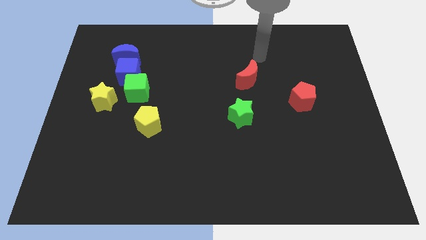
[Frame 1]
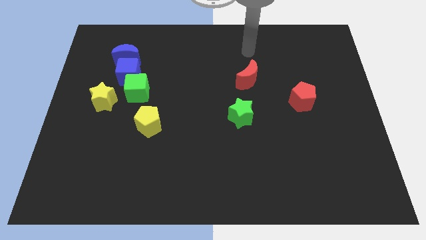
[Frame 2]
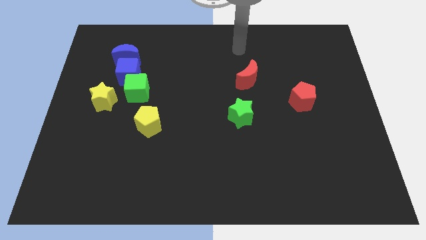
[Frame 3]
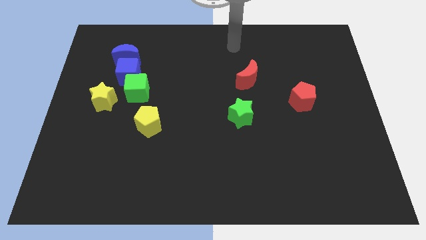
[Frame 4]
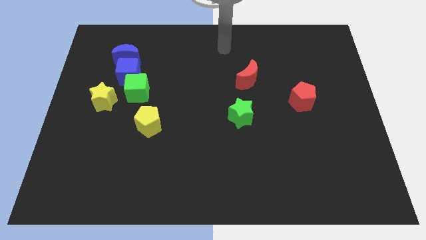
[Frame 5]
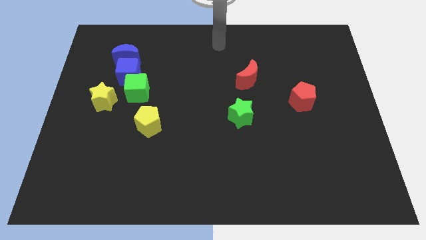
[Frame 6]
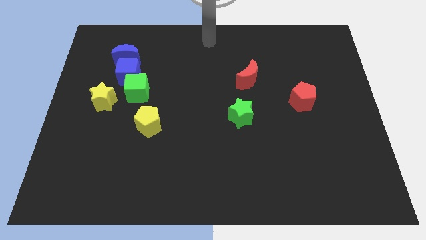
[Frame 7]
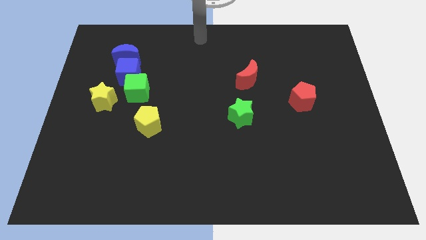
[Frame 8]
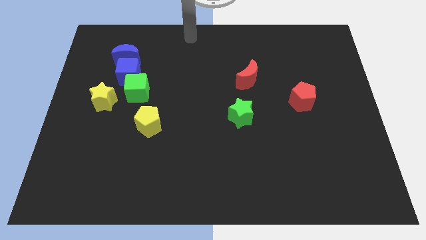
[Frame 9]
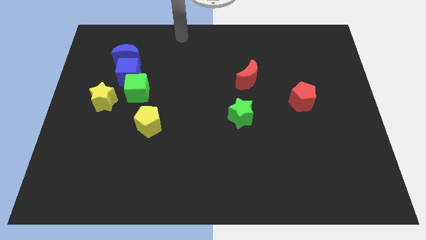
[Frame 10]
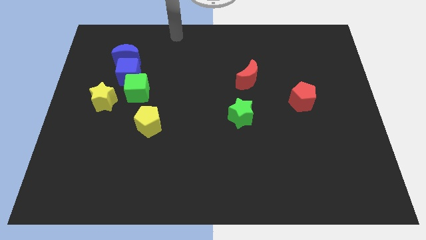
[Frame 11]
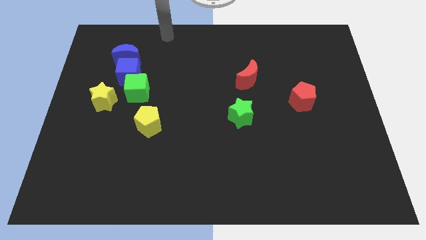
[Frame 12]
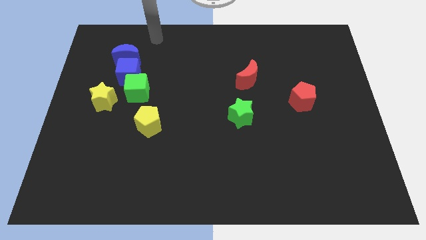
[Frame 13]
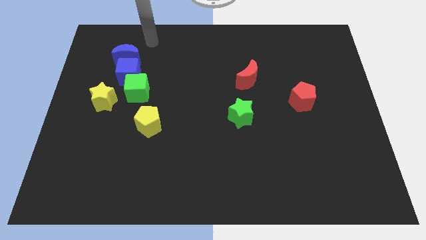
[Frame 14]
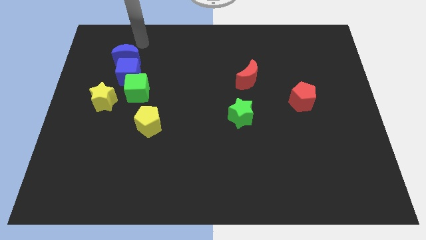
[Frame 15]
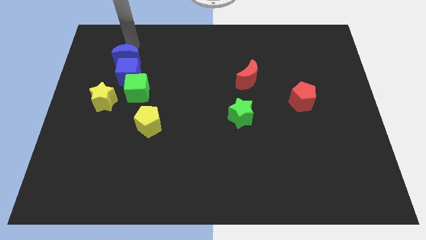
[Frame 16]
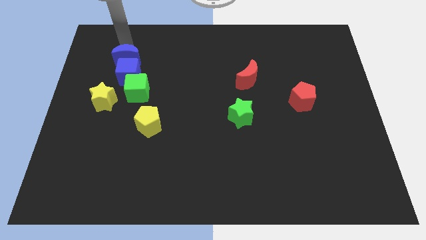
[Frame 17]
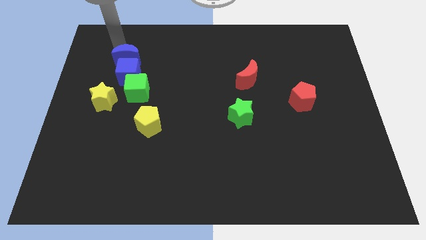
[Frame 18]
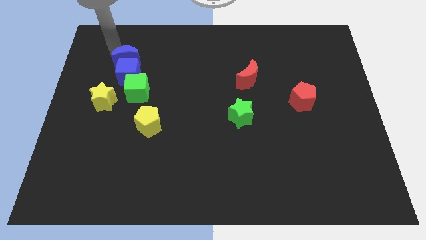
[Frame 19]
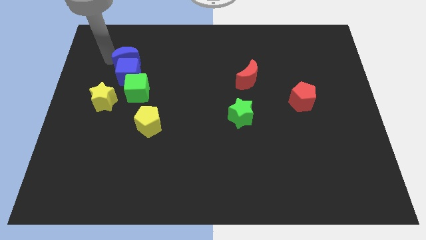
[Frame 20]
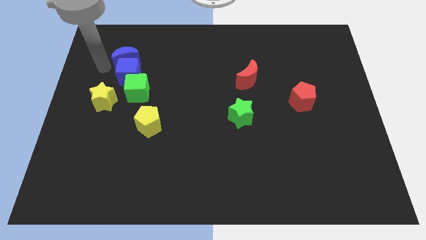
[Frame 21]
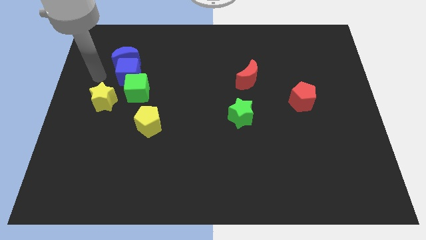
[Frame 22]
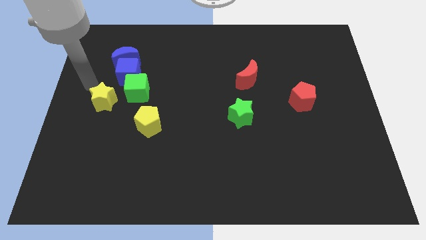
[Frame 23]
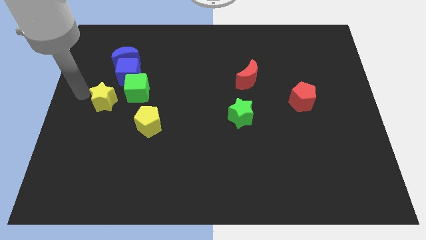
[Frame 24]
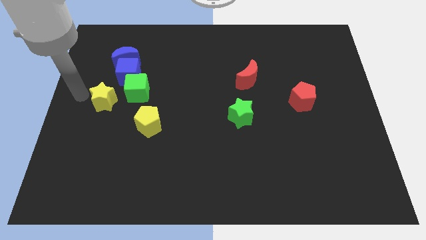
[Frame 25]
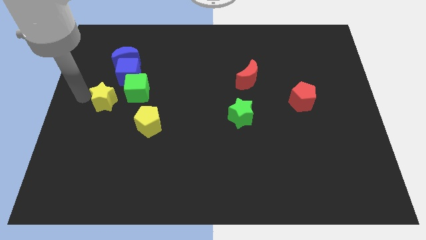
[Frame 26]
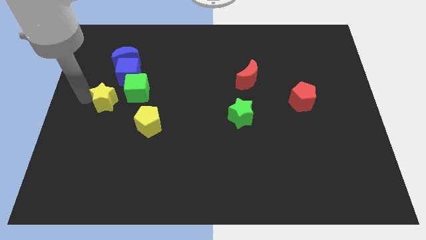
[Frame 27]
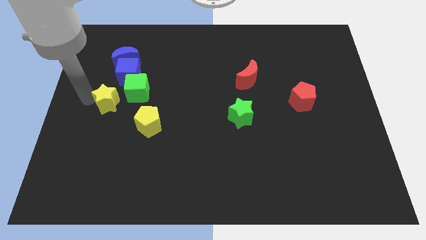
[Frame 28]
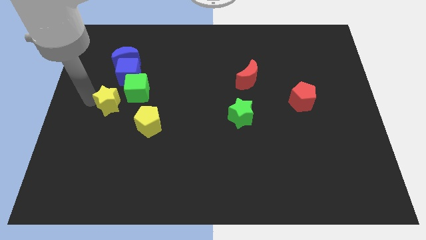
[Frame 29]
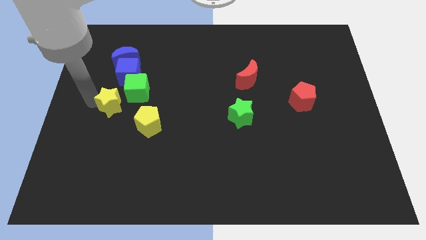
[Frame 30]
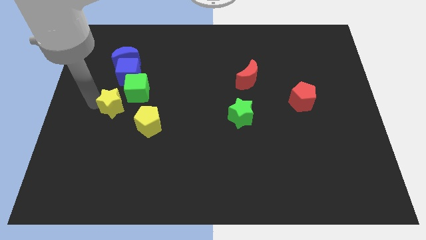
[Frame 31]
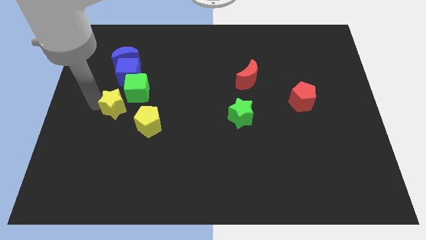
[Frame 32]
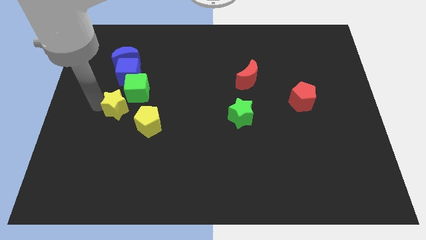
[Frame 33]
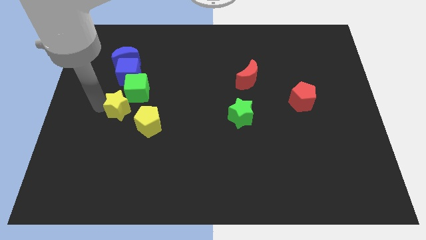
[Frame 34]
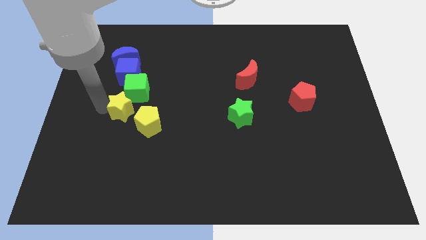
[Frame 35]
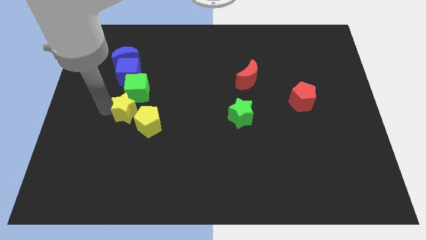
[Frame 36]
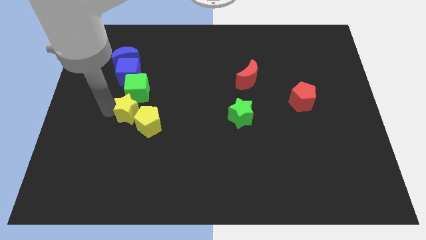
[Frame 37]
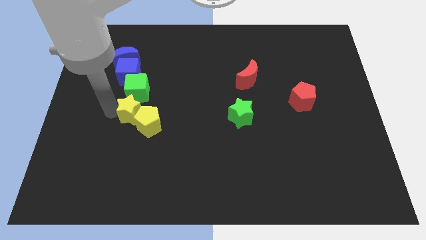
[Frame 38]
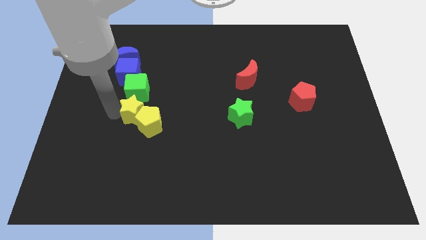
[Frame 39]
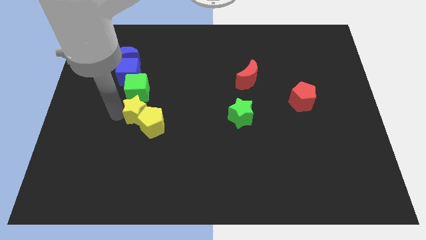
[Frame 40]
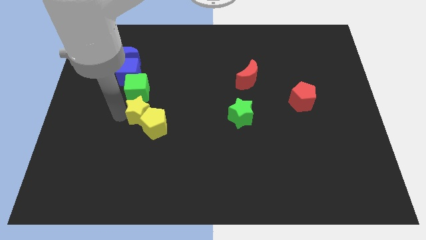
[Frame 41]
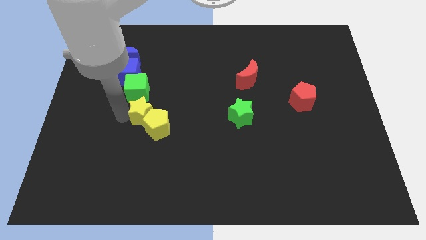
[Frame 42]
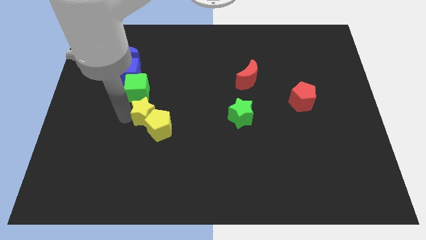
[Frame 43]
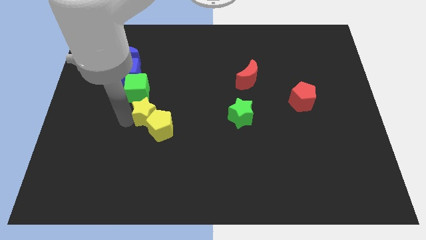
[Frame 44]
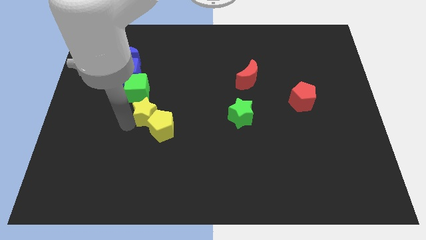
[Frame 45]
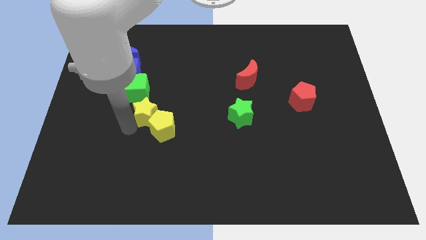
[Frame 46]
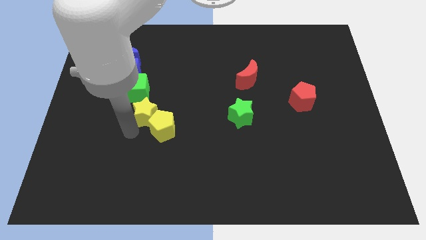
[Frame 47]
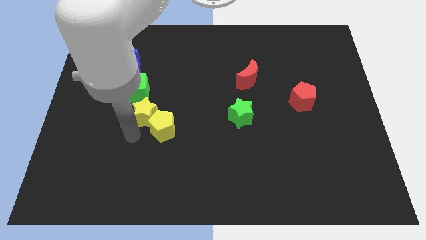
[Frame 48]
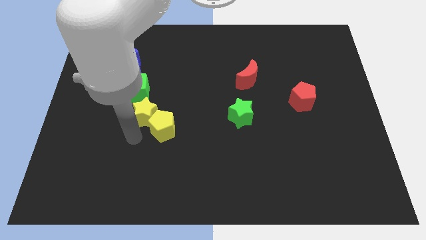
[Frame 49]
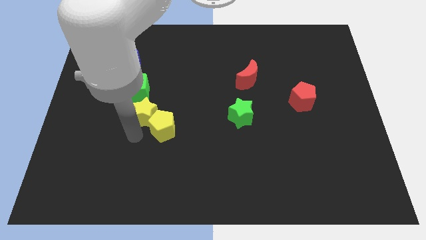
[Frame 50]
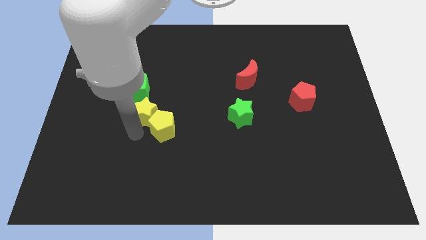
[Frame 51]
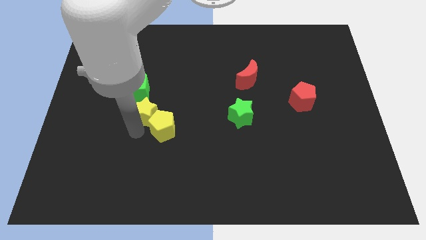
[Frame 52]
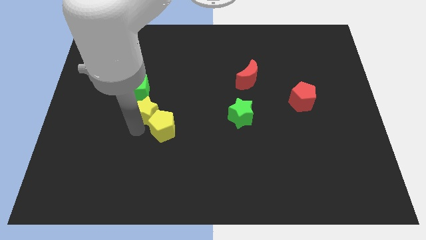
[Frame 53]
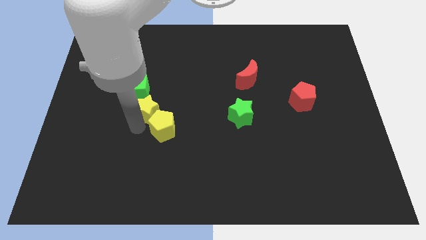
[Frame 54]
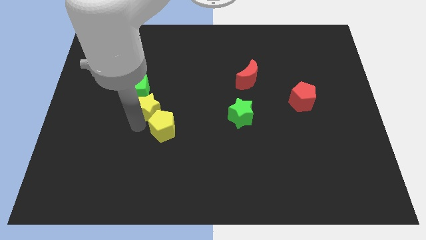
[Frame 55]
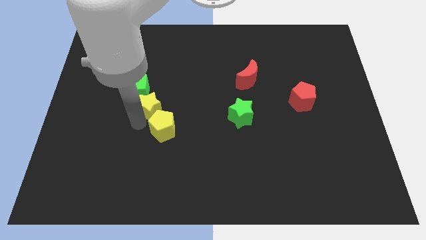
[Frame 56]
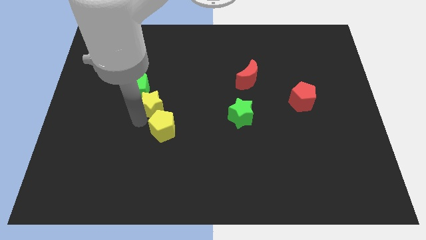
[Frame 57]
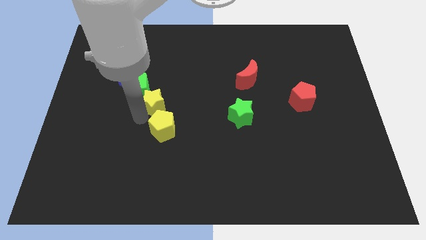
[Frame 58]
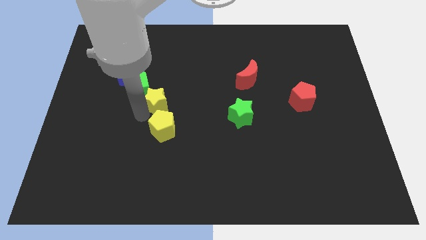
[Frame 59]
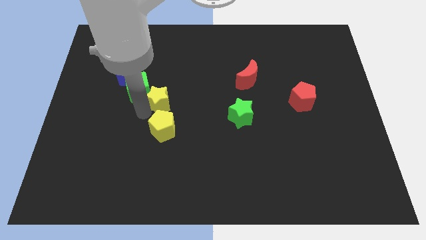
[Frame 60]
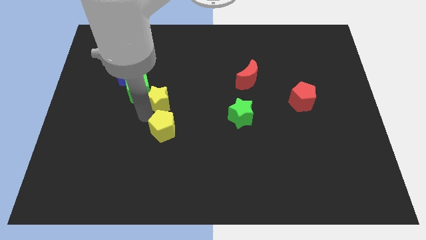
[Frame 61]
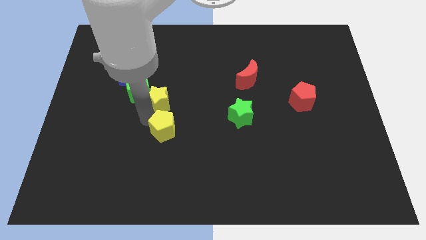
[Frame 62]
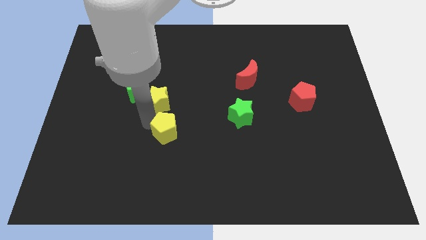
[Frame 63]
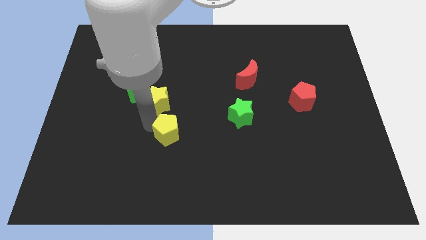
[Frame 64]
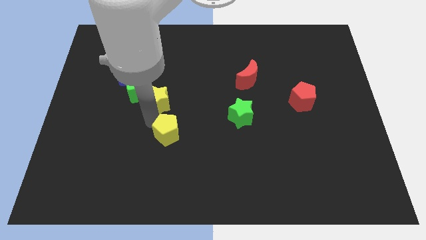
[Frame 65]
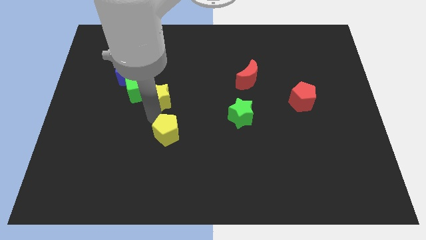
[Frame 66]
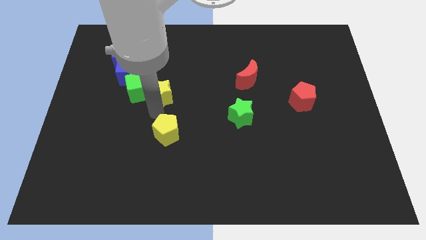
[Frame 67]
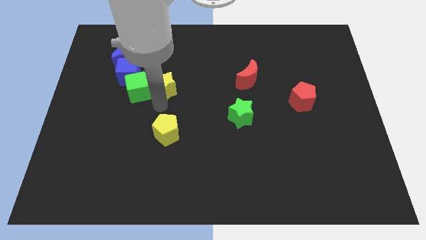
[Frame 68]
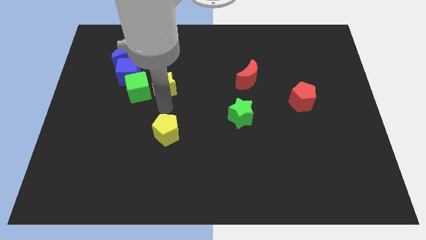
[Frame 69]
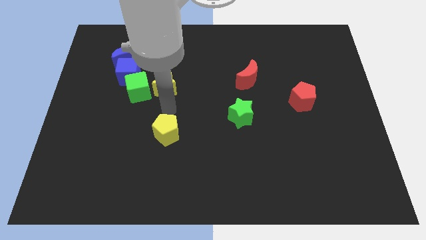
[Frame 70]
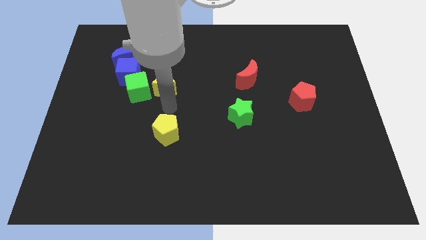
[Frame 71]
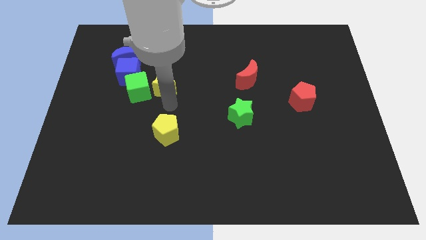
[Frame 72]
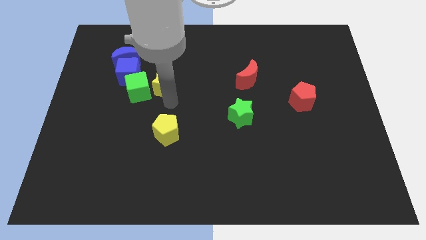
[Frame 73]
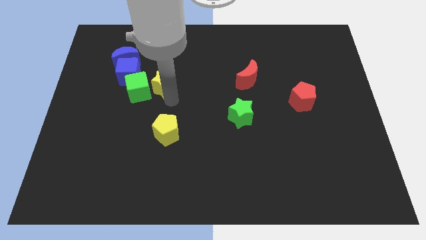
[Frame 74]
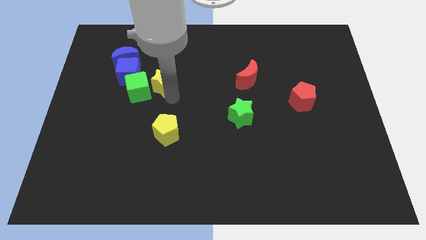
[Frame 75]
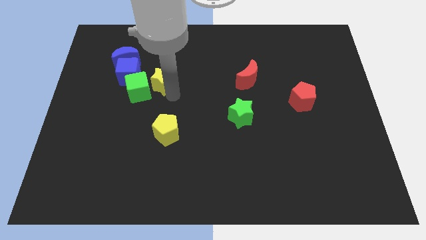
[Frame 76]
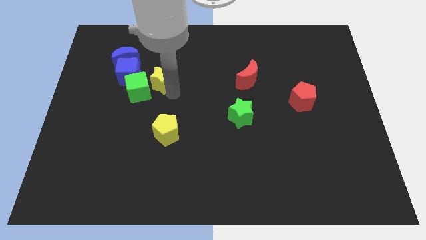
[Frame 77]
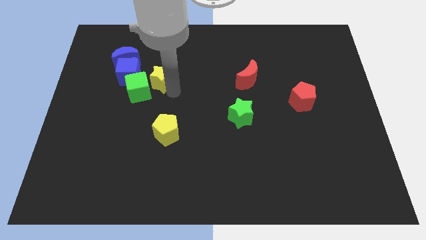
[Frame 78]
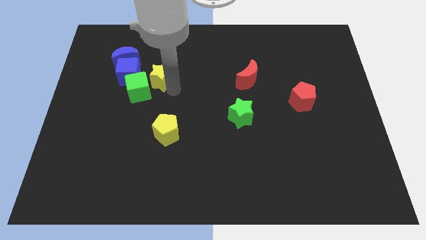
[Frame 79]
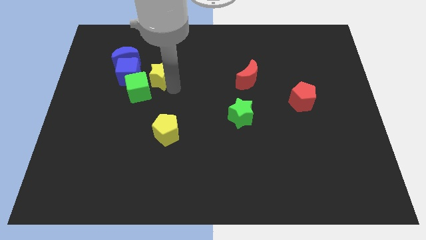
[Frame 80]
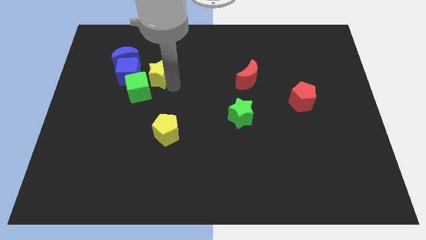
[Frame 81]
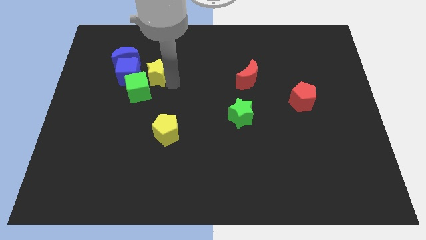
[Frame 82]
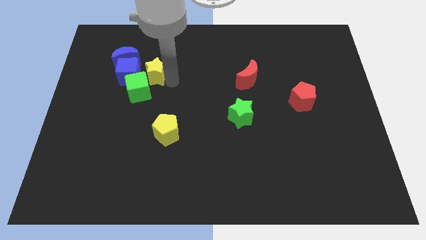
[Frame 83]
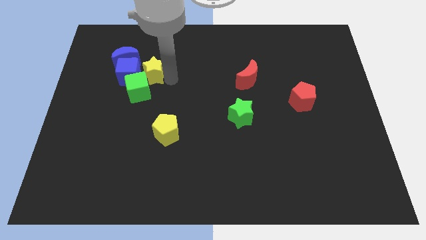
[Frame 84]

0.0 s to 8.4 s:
slide the yellow star to the top right side of the blue cube
